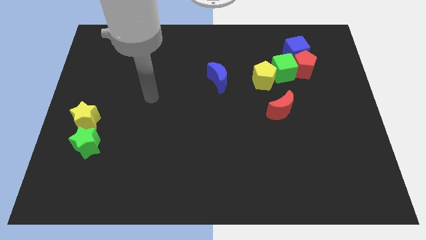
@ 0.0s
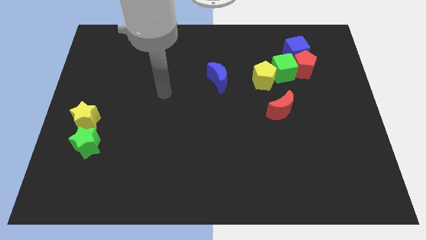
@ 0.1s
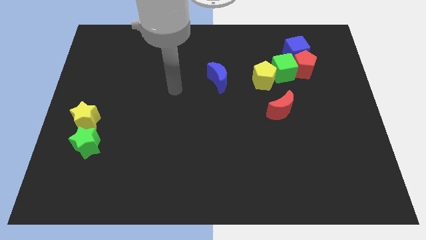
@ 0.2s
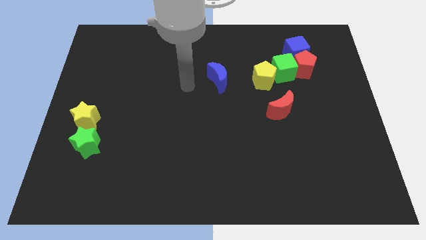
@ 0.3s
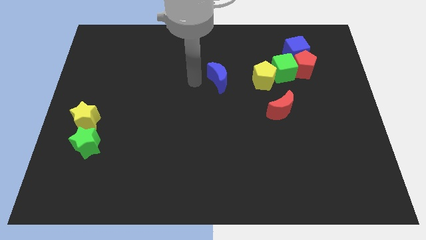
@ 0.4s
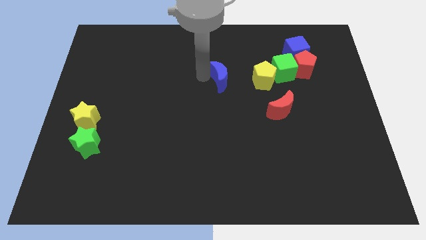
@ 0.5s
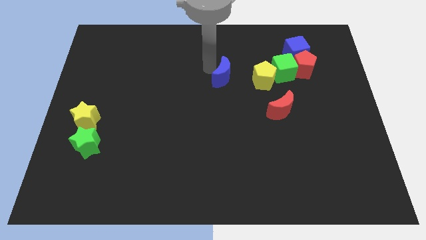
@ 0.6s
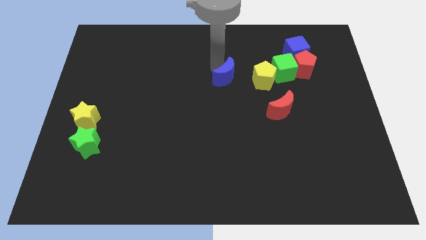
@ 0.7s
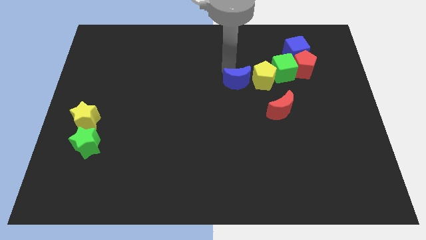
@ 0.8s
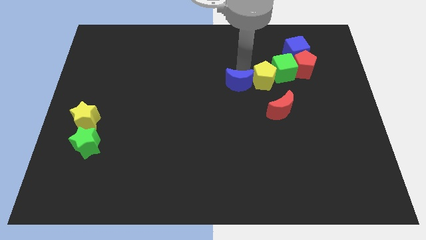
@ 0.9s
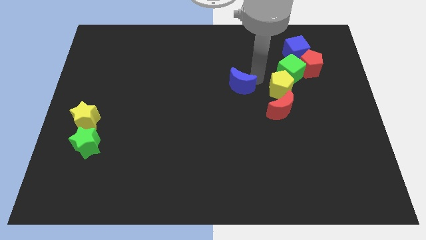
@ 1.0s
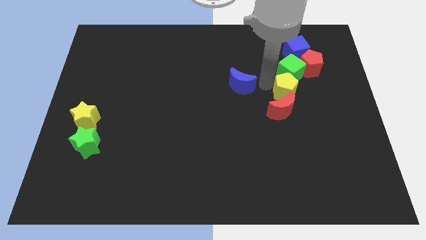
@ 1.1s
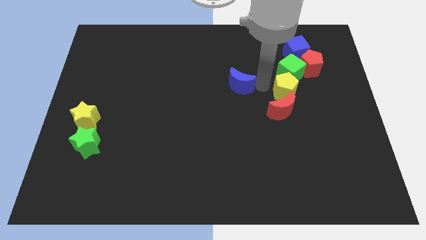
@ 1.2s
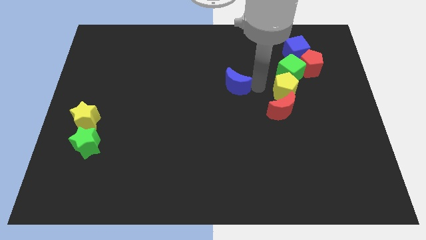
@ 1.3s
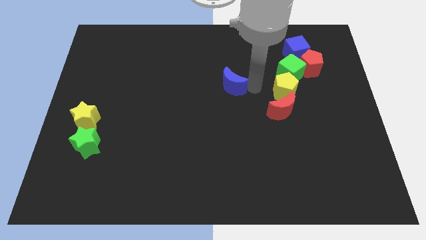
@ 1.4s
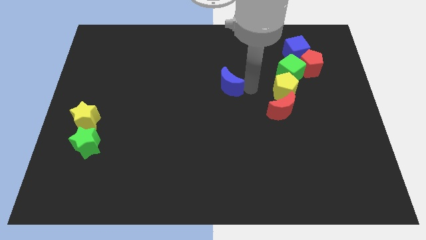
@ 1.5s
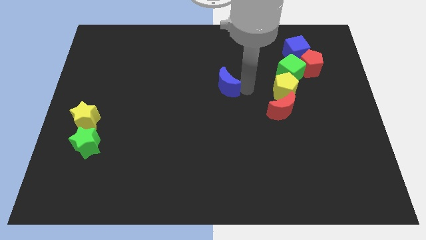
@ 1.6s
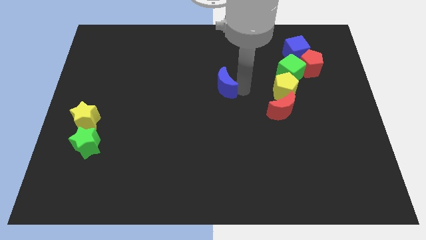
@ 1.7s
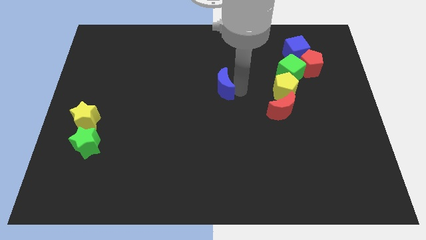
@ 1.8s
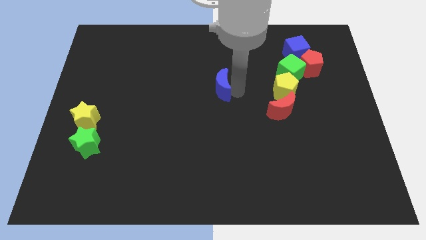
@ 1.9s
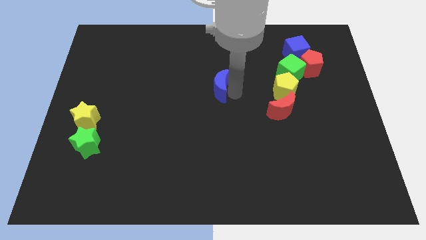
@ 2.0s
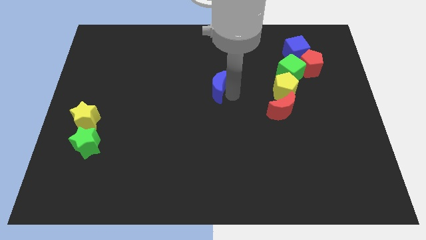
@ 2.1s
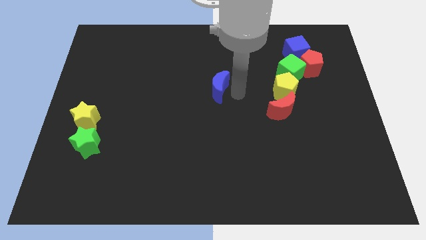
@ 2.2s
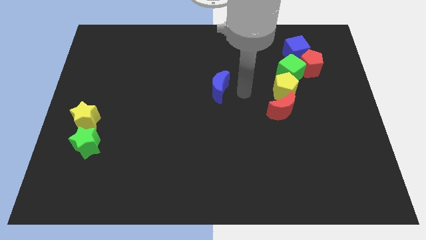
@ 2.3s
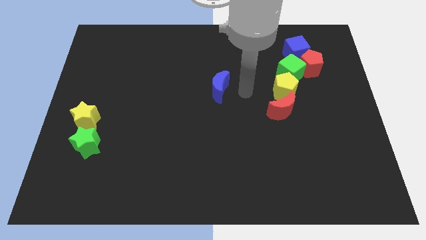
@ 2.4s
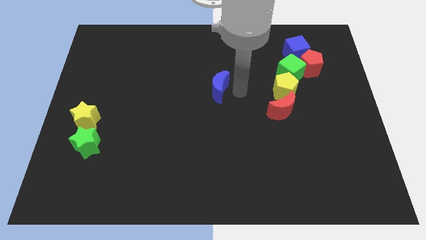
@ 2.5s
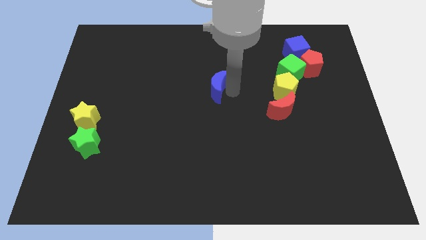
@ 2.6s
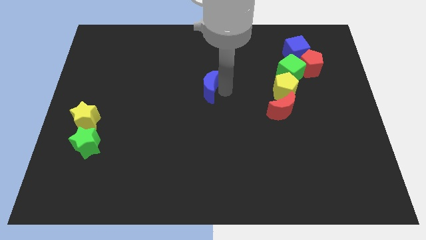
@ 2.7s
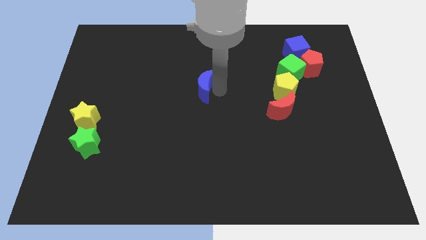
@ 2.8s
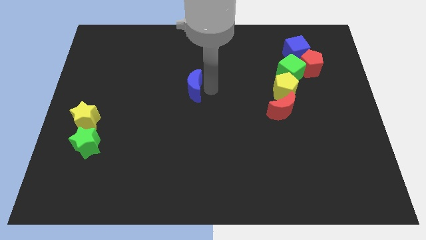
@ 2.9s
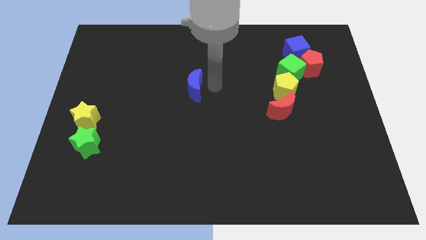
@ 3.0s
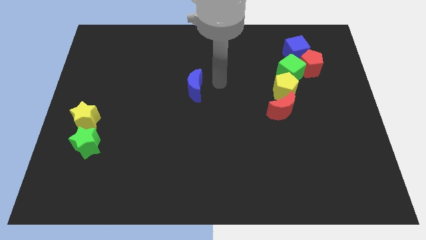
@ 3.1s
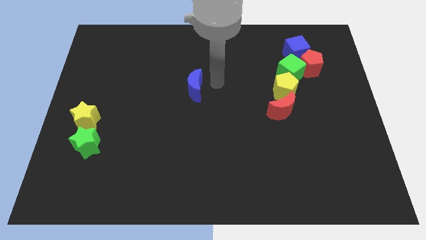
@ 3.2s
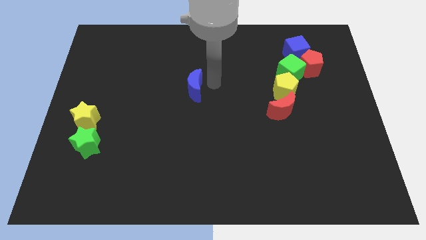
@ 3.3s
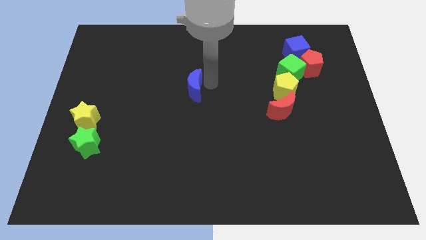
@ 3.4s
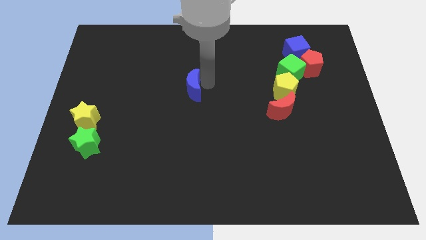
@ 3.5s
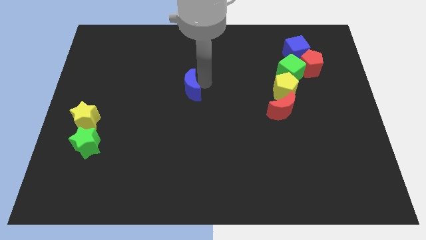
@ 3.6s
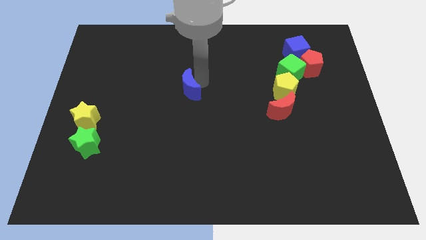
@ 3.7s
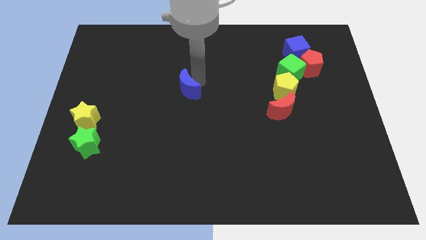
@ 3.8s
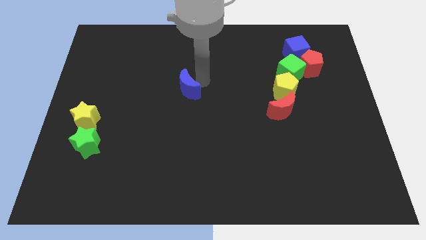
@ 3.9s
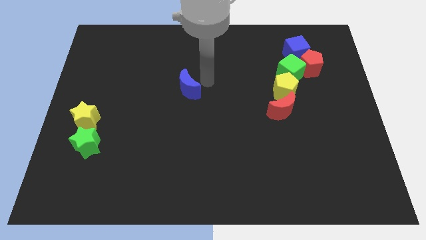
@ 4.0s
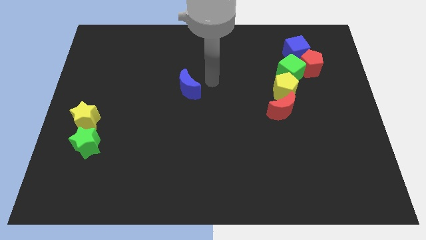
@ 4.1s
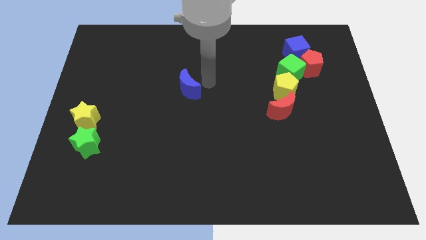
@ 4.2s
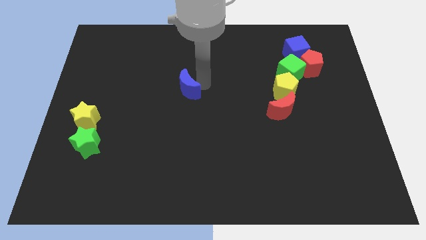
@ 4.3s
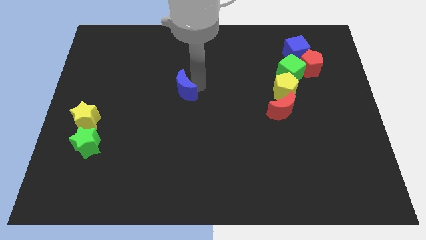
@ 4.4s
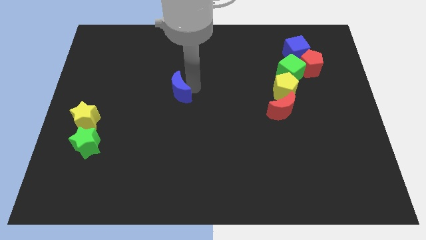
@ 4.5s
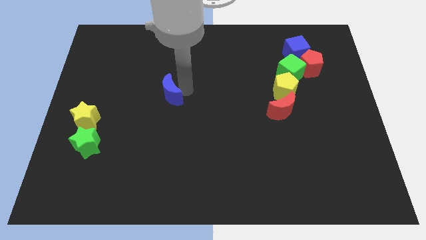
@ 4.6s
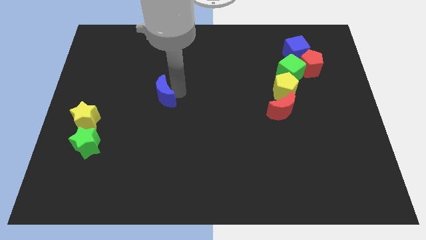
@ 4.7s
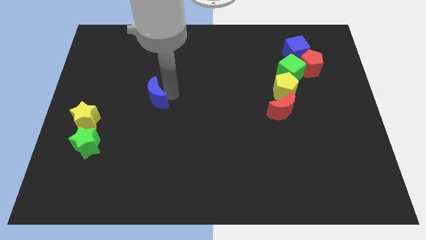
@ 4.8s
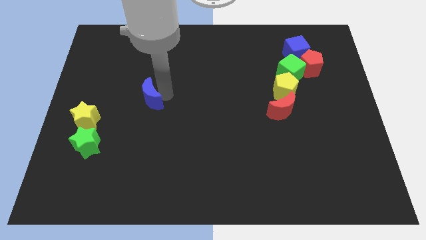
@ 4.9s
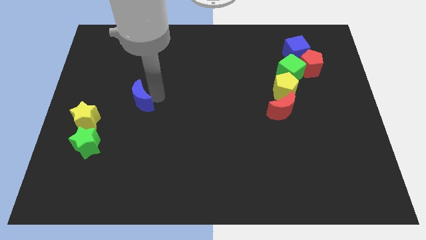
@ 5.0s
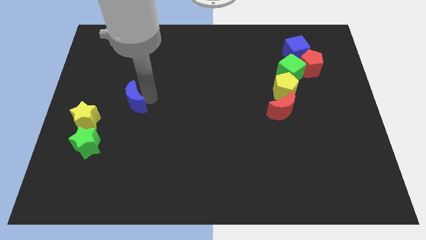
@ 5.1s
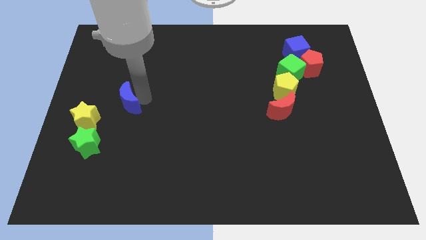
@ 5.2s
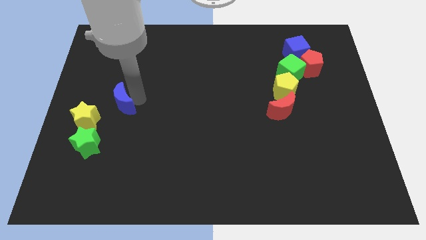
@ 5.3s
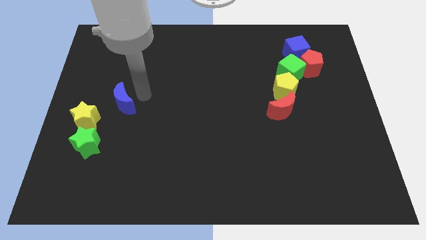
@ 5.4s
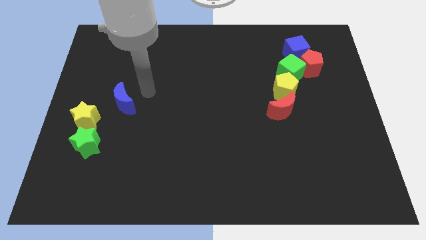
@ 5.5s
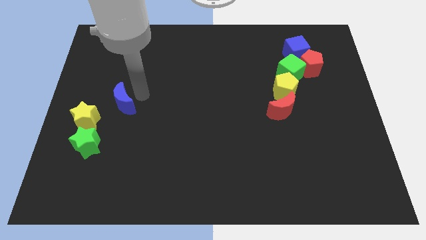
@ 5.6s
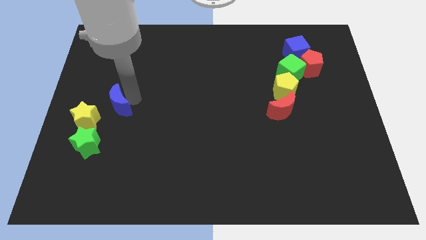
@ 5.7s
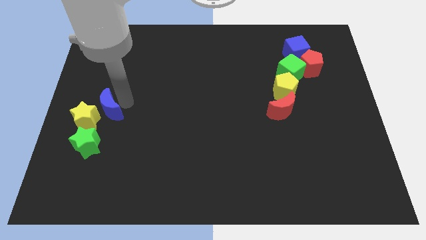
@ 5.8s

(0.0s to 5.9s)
move the blue moon next to the yellow star

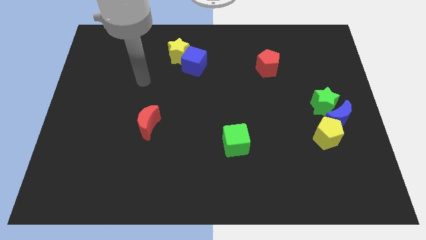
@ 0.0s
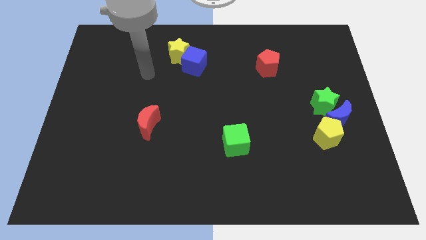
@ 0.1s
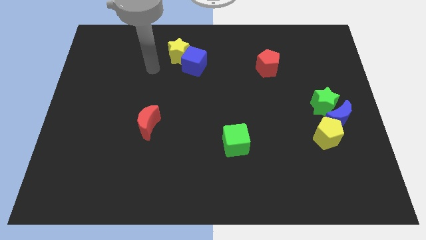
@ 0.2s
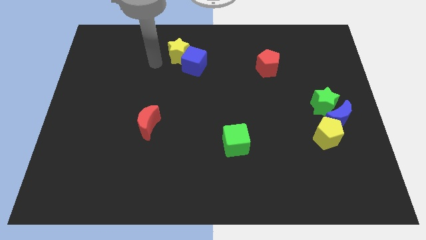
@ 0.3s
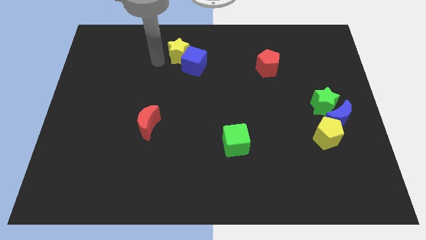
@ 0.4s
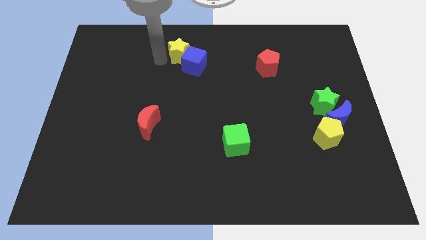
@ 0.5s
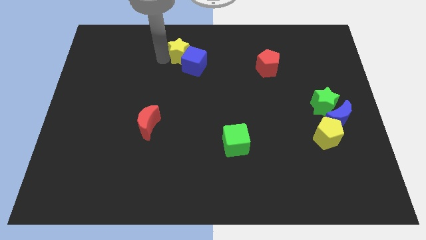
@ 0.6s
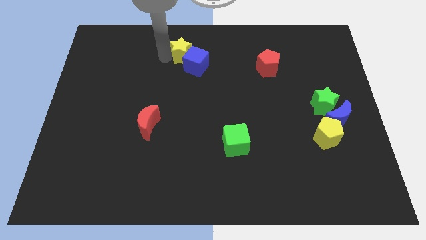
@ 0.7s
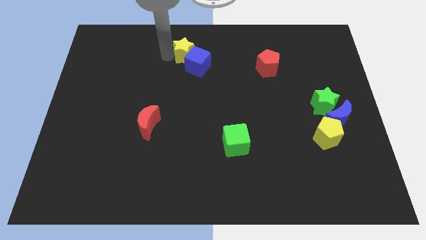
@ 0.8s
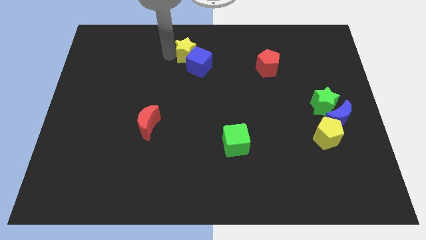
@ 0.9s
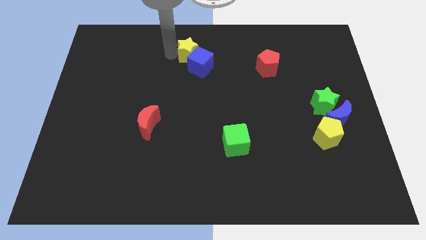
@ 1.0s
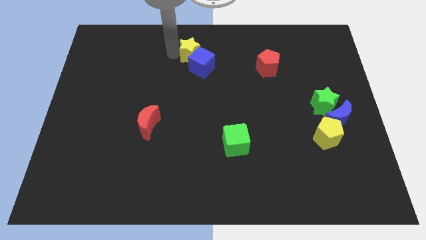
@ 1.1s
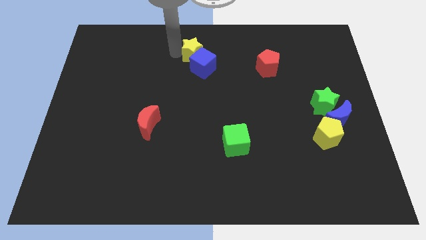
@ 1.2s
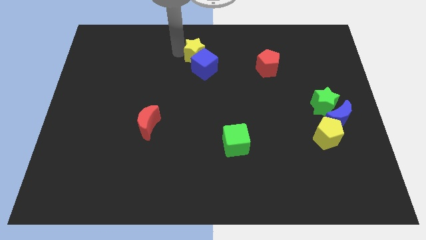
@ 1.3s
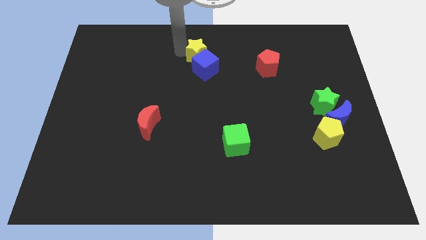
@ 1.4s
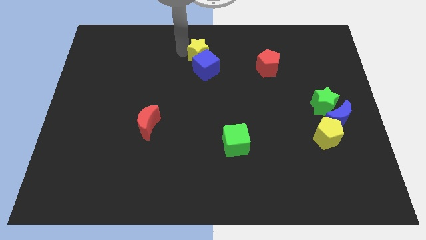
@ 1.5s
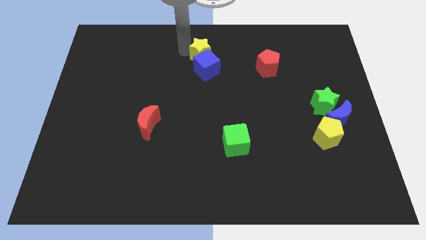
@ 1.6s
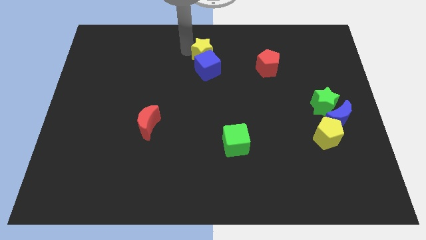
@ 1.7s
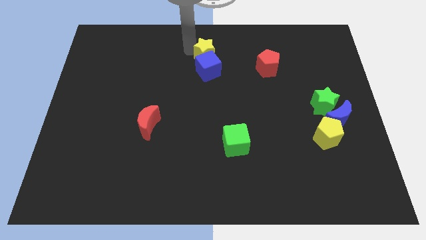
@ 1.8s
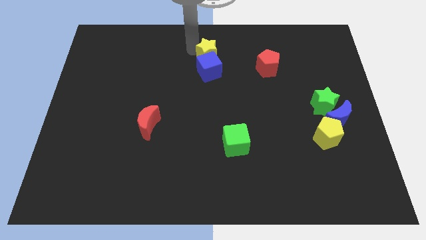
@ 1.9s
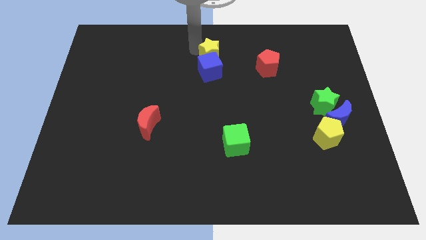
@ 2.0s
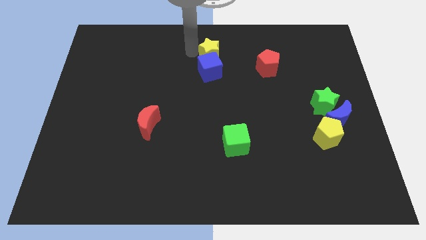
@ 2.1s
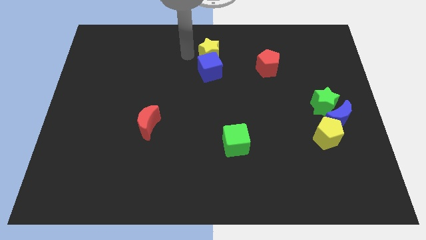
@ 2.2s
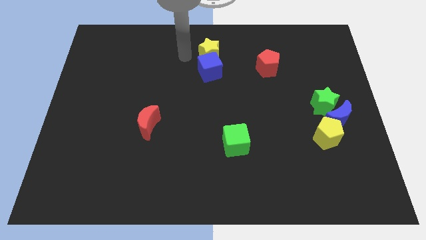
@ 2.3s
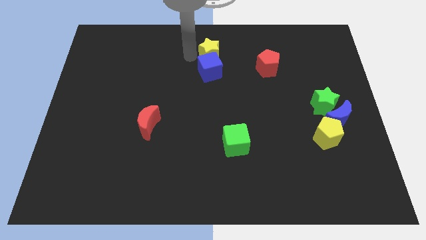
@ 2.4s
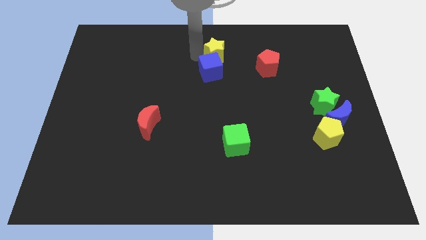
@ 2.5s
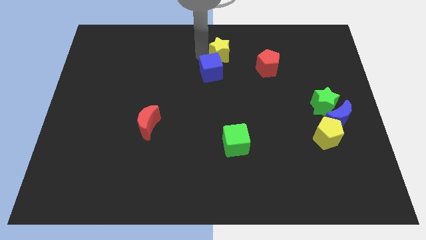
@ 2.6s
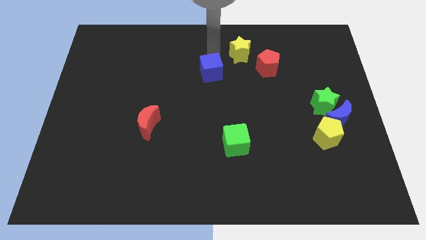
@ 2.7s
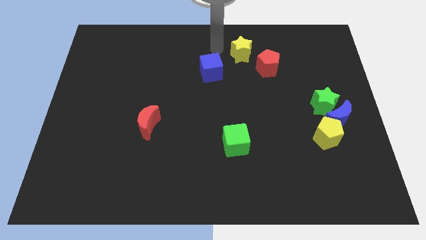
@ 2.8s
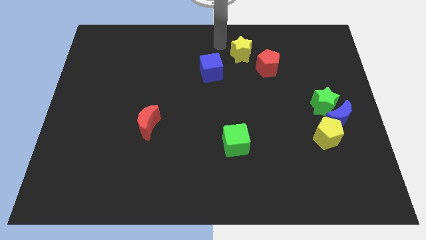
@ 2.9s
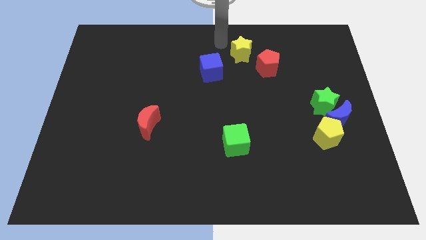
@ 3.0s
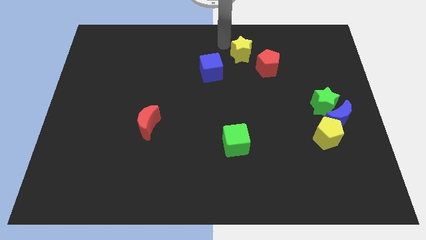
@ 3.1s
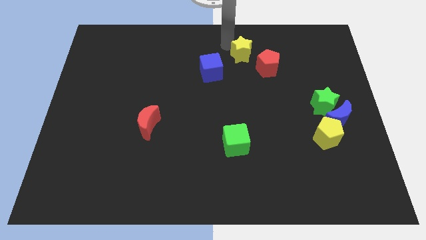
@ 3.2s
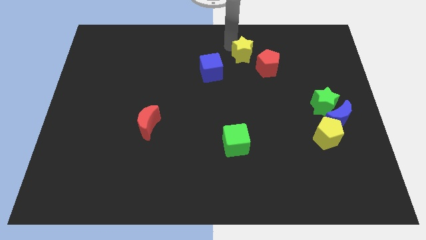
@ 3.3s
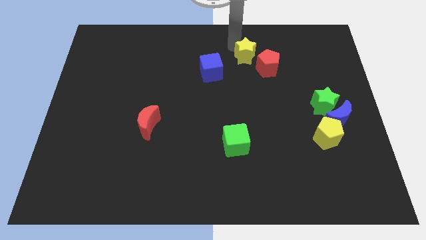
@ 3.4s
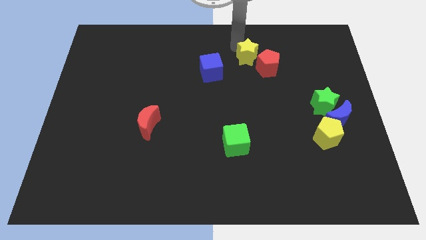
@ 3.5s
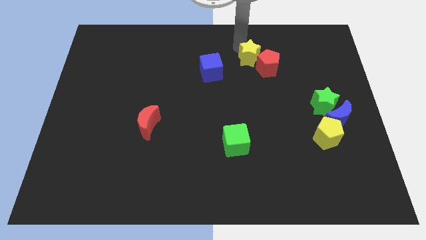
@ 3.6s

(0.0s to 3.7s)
push the yellow star close to the red pentagon
